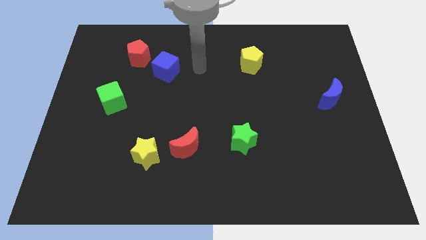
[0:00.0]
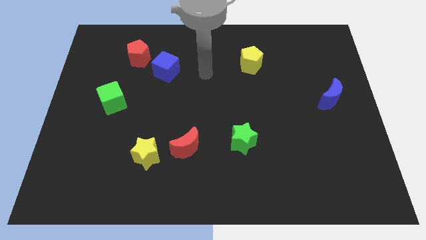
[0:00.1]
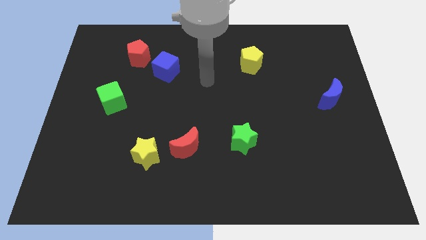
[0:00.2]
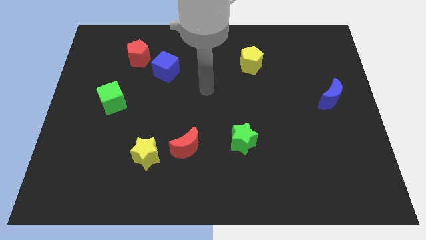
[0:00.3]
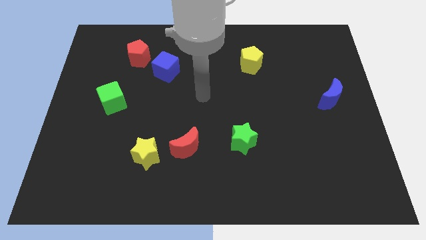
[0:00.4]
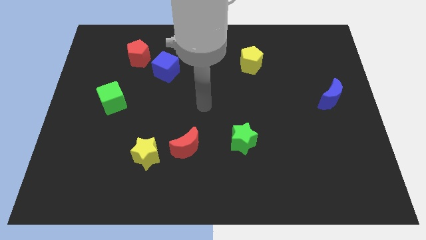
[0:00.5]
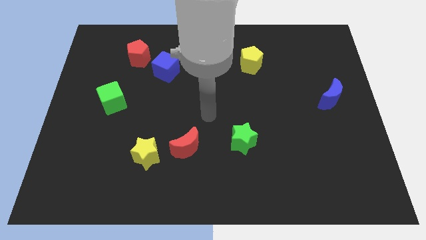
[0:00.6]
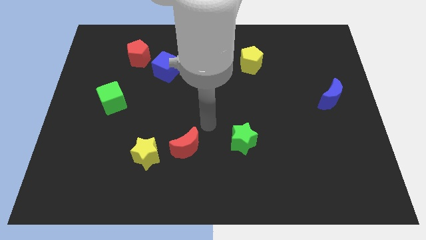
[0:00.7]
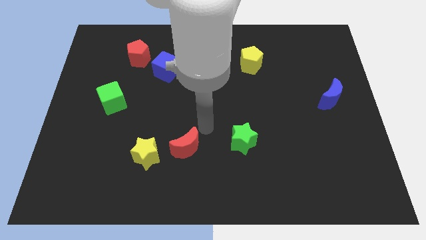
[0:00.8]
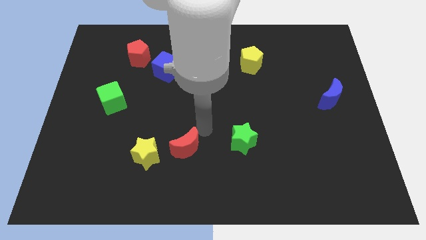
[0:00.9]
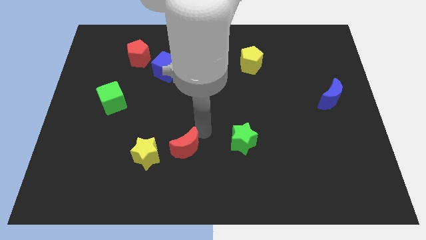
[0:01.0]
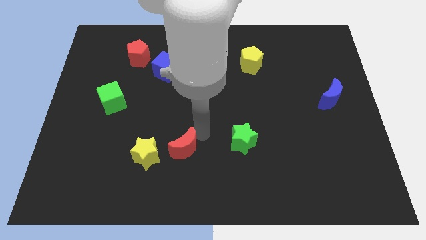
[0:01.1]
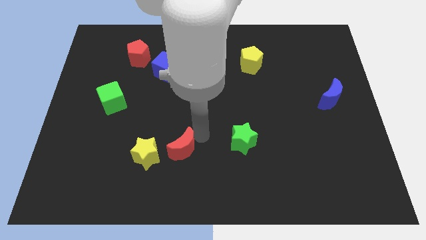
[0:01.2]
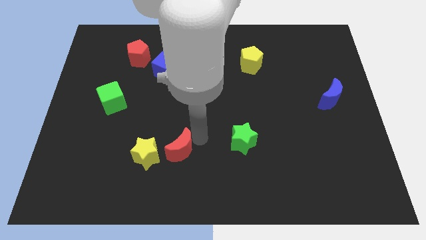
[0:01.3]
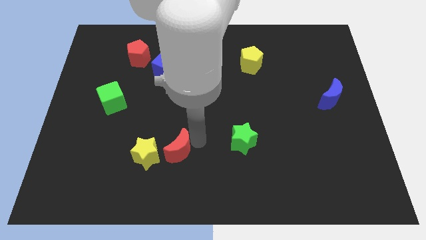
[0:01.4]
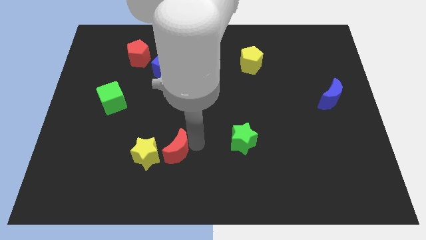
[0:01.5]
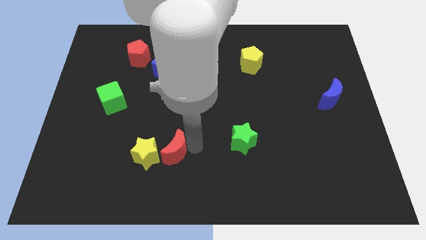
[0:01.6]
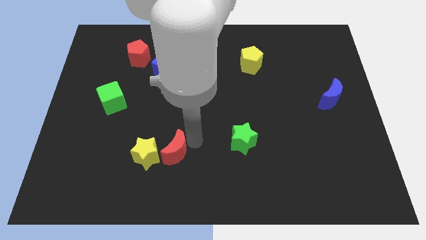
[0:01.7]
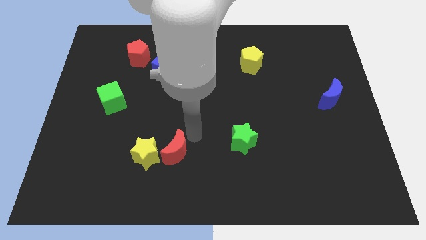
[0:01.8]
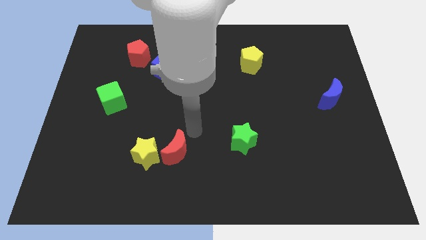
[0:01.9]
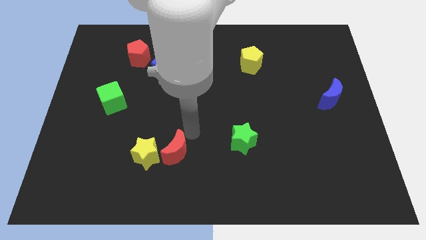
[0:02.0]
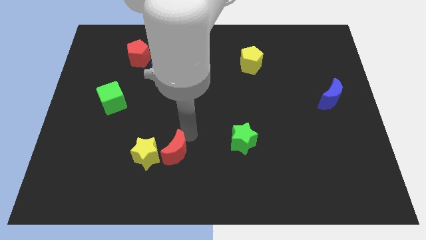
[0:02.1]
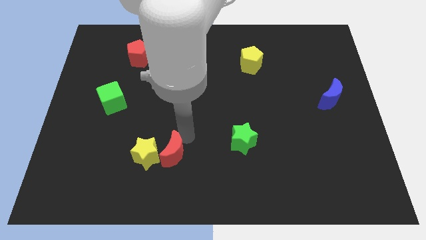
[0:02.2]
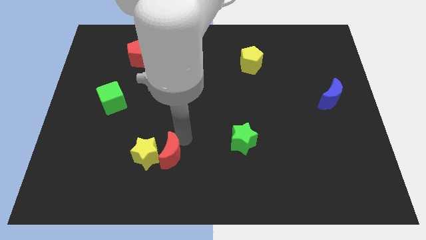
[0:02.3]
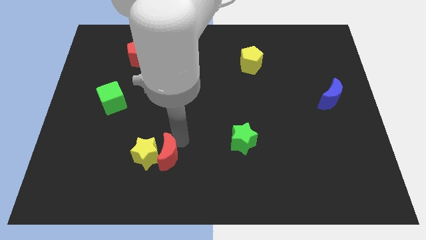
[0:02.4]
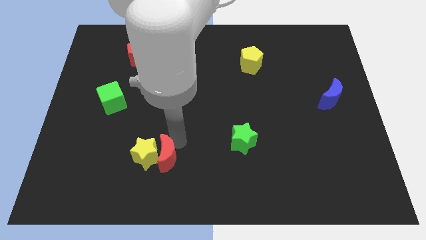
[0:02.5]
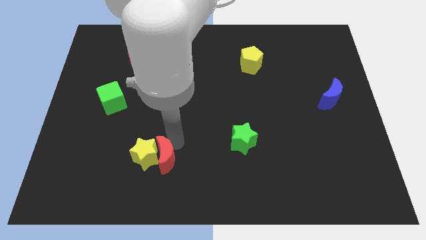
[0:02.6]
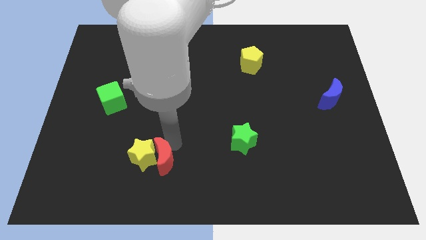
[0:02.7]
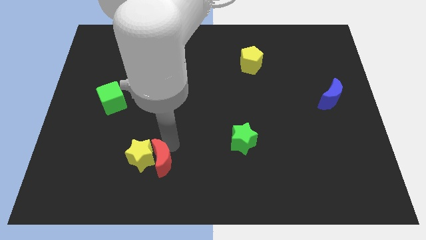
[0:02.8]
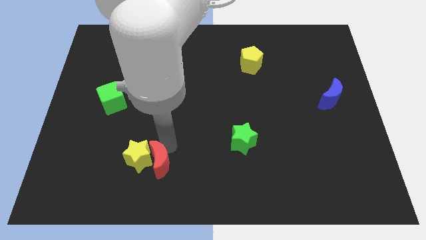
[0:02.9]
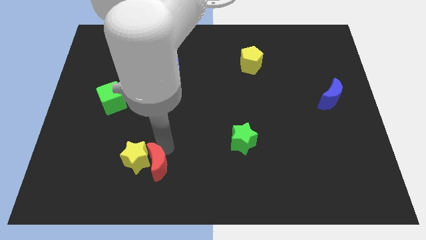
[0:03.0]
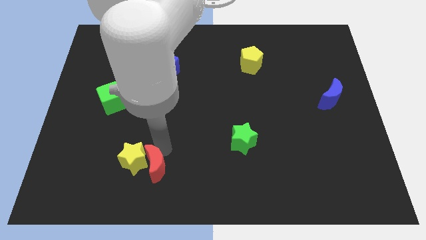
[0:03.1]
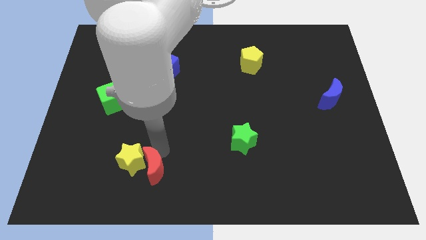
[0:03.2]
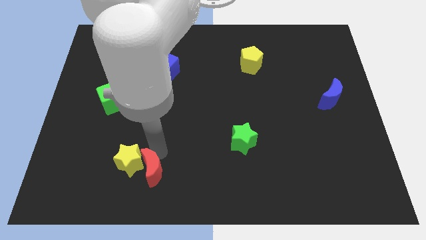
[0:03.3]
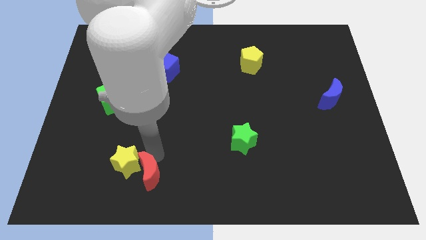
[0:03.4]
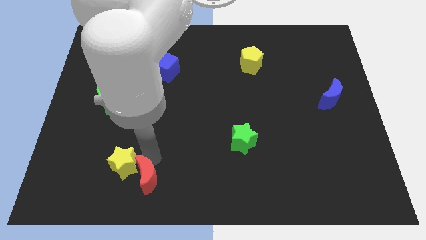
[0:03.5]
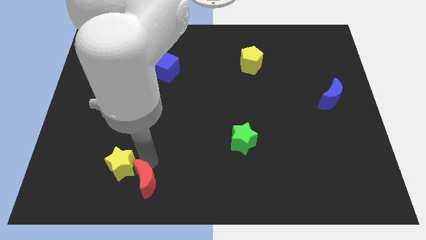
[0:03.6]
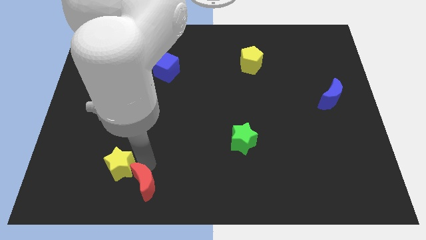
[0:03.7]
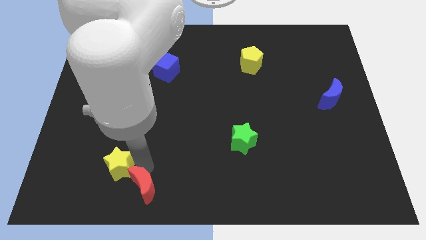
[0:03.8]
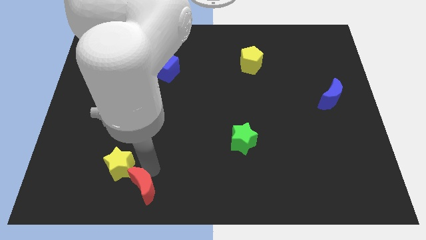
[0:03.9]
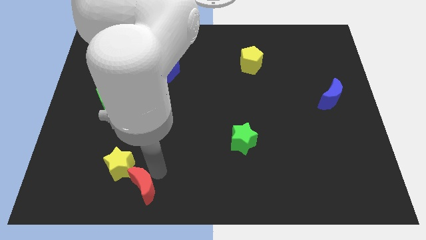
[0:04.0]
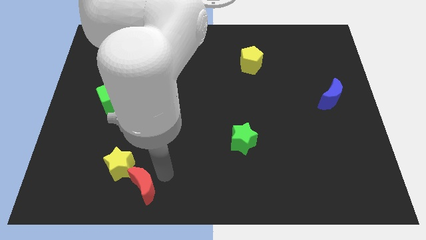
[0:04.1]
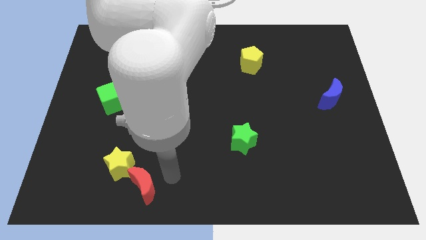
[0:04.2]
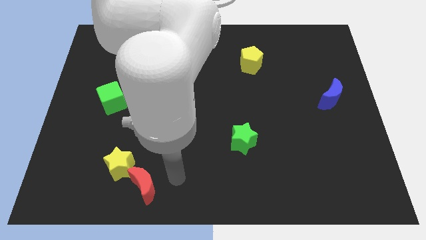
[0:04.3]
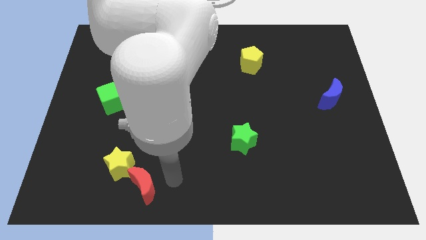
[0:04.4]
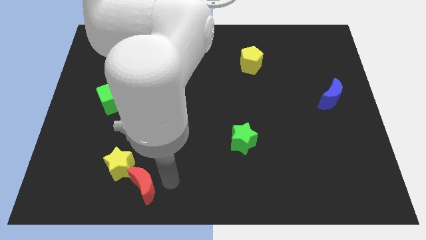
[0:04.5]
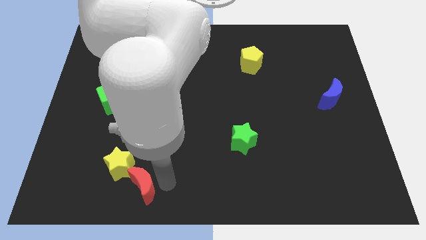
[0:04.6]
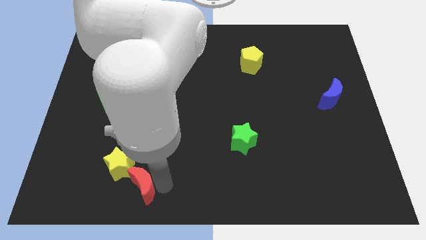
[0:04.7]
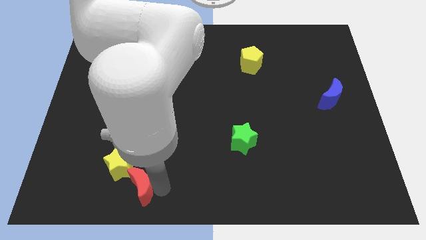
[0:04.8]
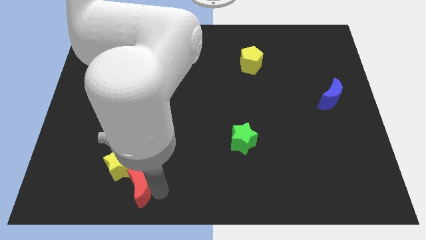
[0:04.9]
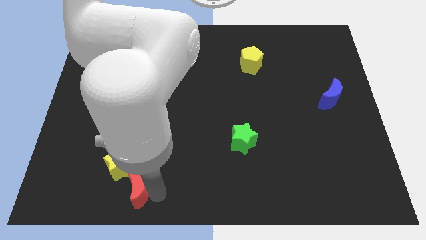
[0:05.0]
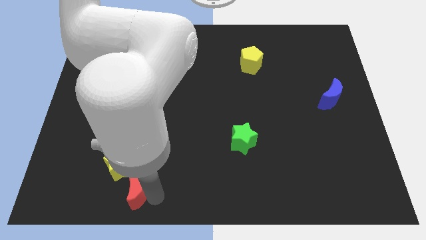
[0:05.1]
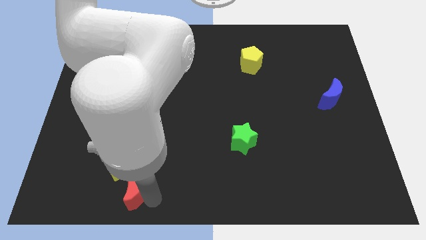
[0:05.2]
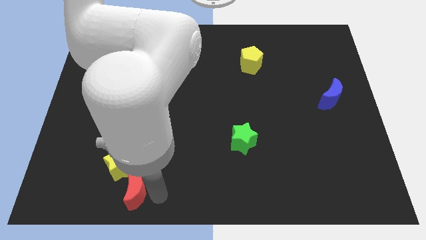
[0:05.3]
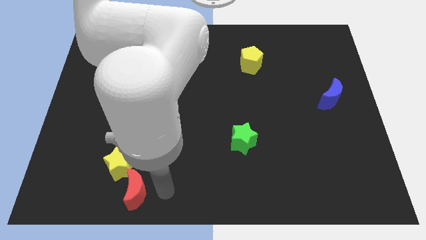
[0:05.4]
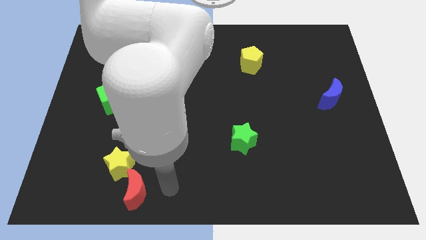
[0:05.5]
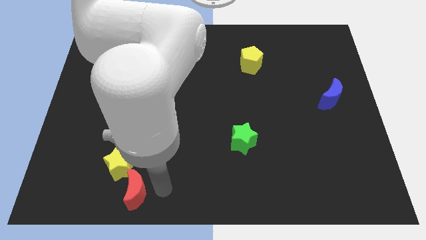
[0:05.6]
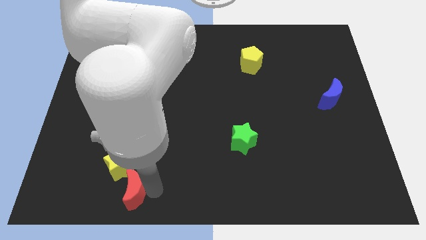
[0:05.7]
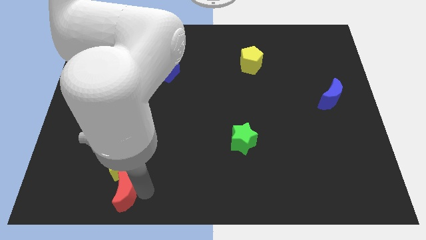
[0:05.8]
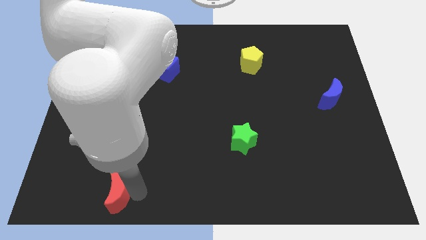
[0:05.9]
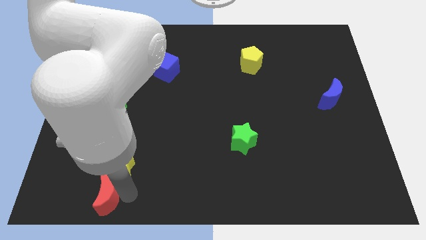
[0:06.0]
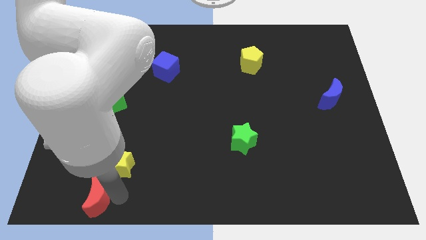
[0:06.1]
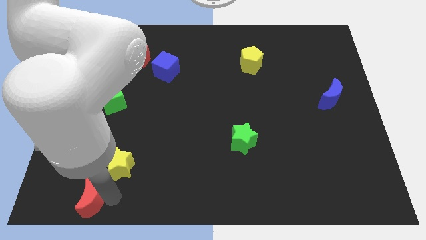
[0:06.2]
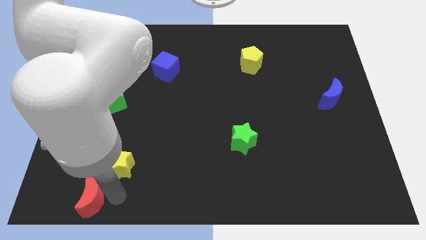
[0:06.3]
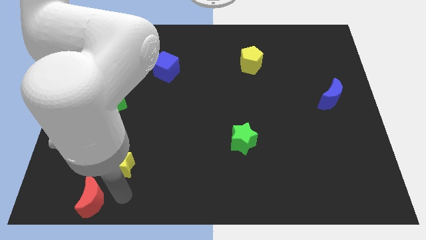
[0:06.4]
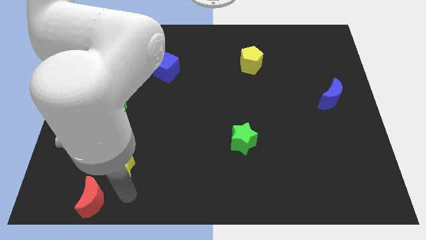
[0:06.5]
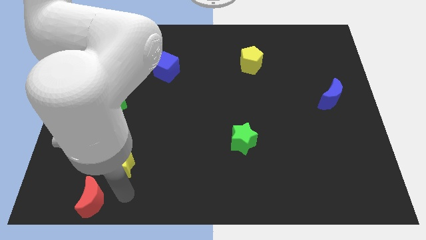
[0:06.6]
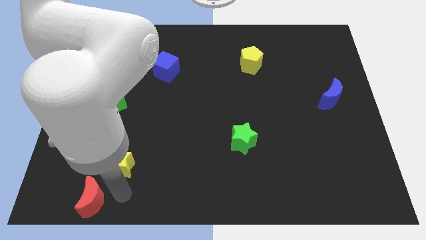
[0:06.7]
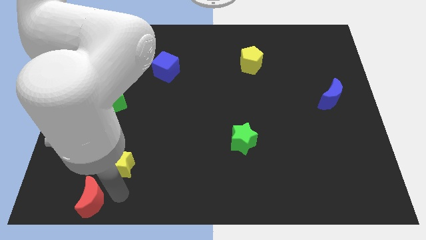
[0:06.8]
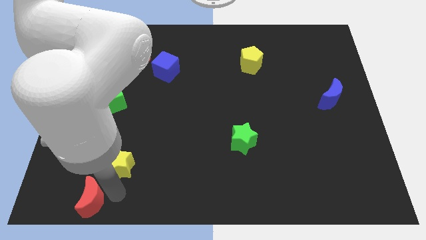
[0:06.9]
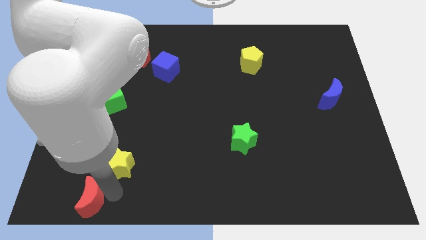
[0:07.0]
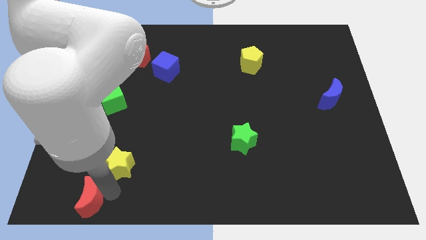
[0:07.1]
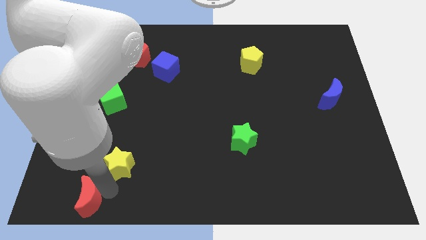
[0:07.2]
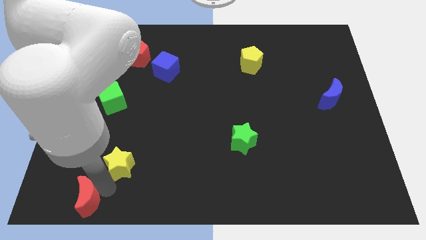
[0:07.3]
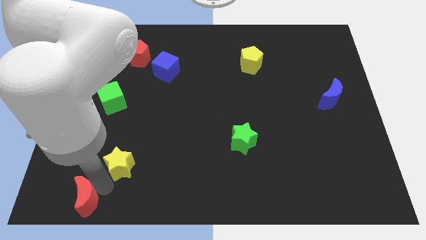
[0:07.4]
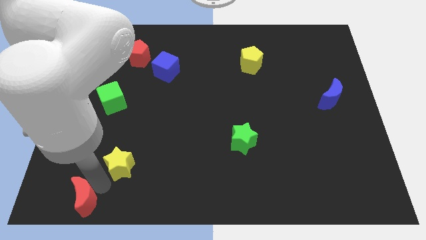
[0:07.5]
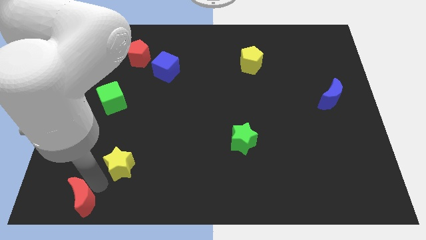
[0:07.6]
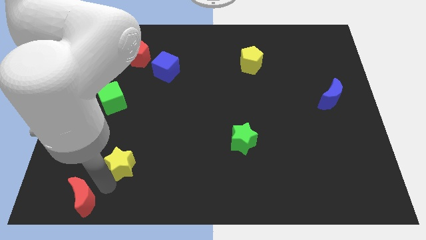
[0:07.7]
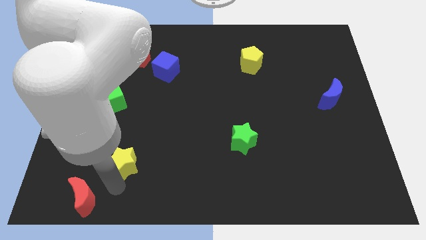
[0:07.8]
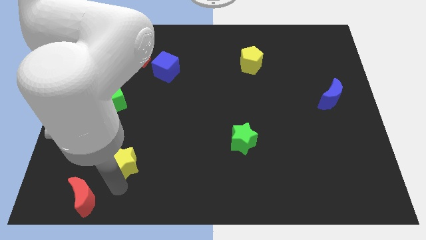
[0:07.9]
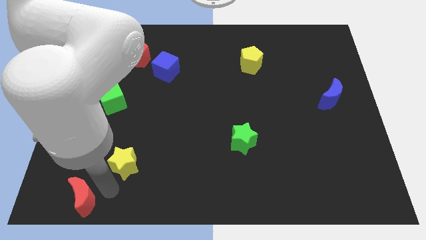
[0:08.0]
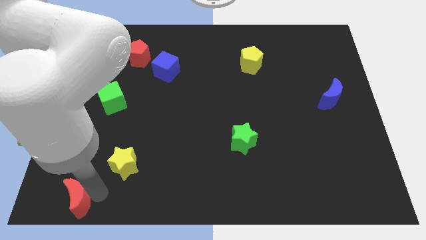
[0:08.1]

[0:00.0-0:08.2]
put the red moon to the bottom left corner
